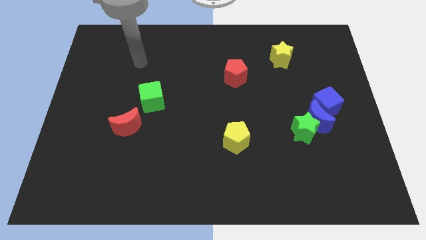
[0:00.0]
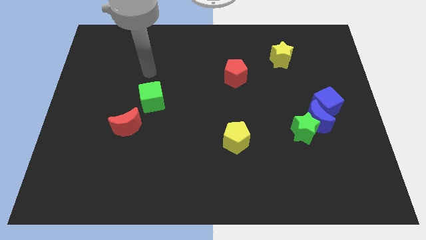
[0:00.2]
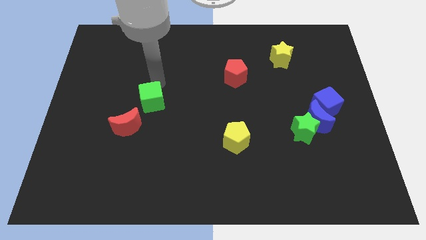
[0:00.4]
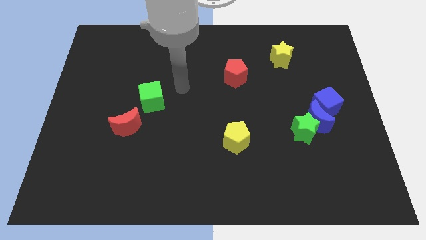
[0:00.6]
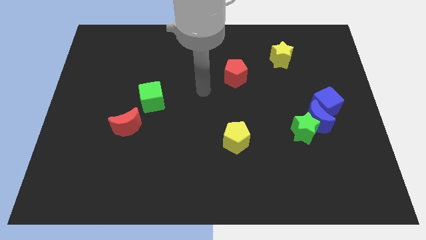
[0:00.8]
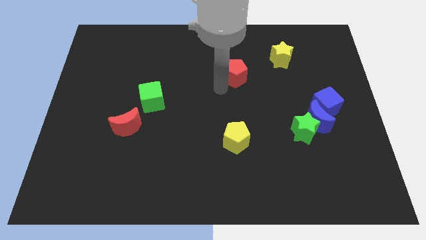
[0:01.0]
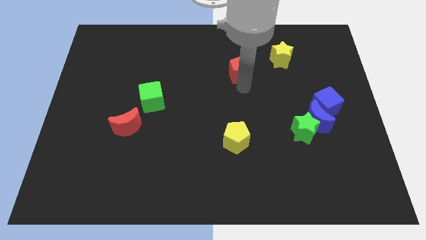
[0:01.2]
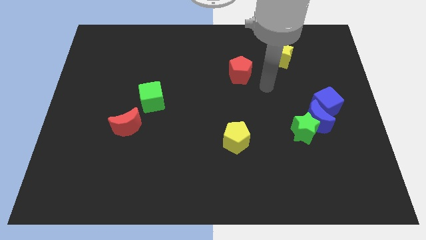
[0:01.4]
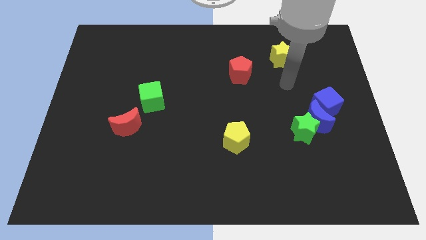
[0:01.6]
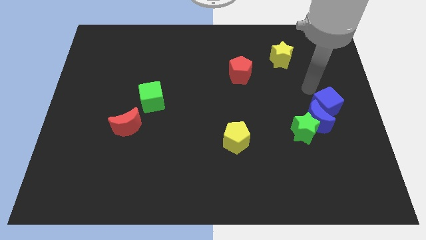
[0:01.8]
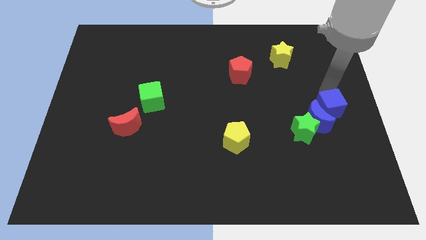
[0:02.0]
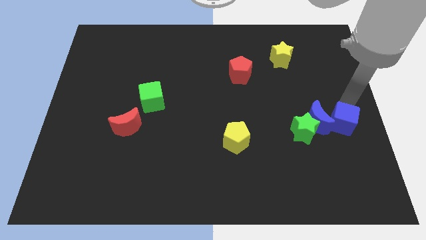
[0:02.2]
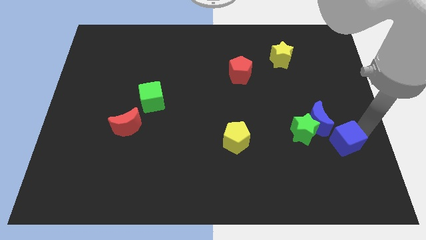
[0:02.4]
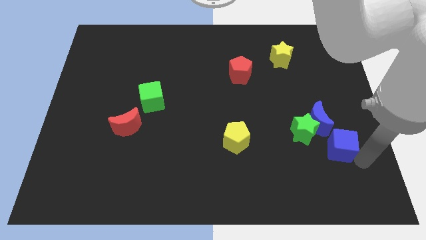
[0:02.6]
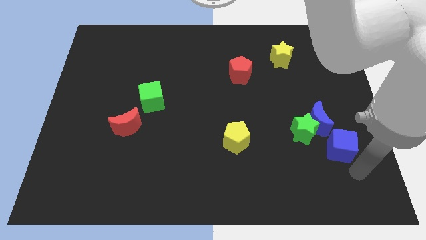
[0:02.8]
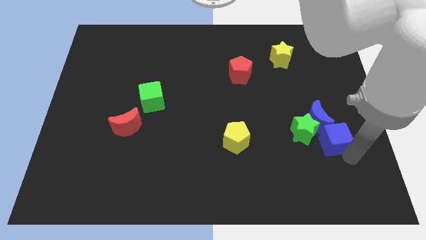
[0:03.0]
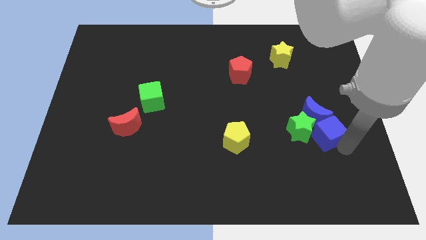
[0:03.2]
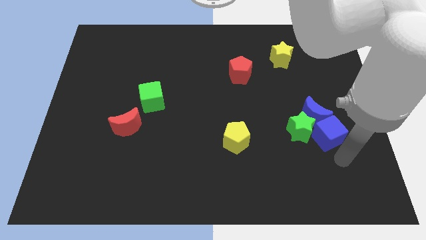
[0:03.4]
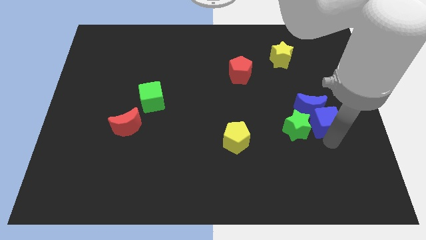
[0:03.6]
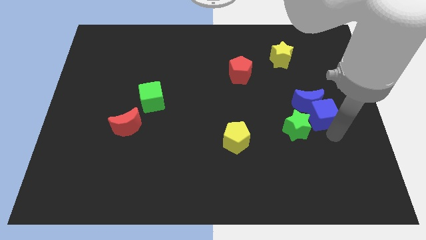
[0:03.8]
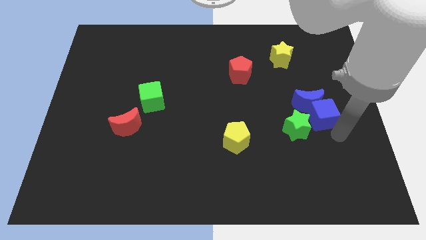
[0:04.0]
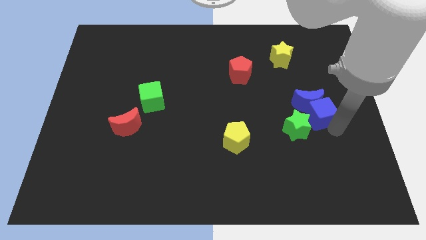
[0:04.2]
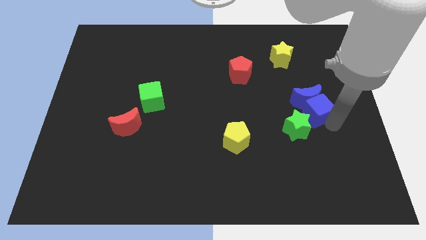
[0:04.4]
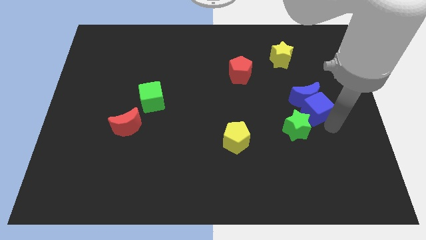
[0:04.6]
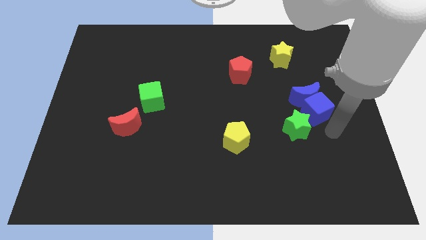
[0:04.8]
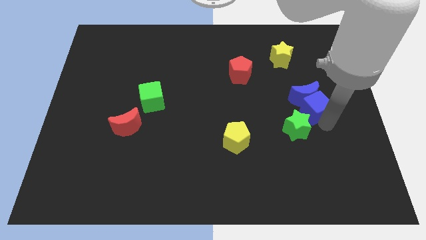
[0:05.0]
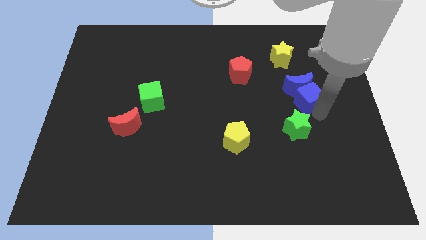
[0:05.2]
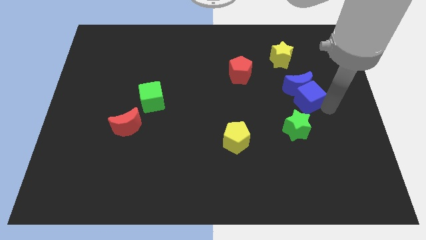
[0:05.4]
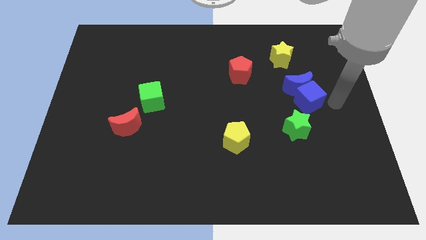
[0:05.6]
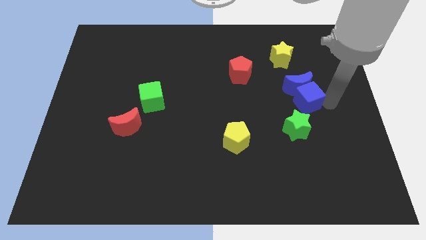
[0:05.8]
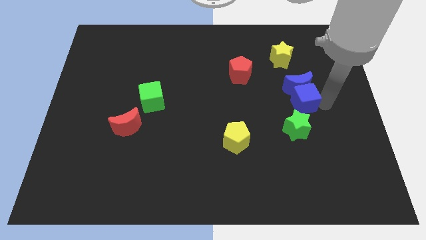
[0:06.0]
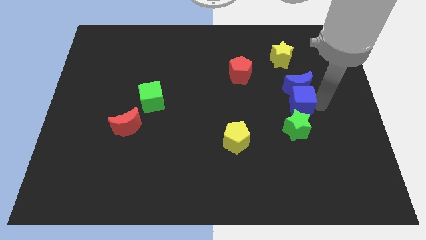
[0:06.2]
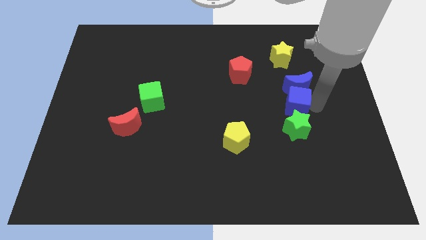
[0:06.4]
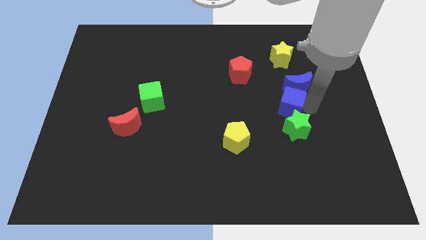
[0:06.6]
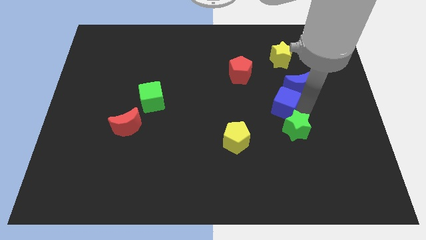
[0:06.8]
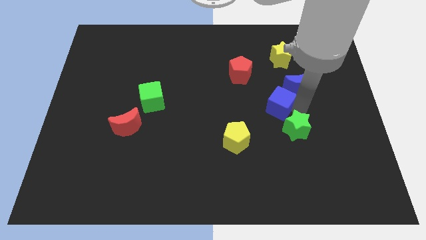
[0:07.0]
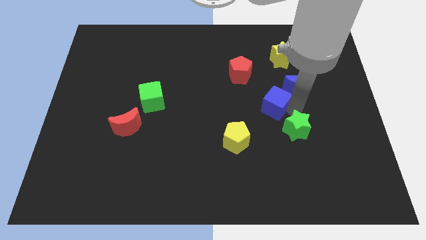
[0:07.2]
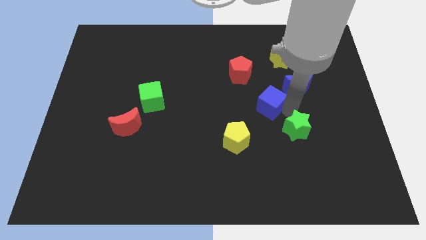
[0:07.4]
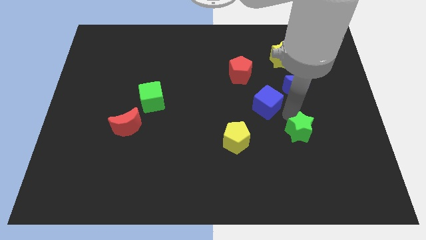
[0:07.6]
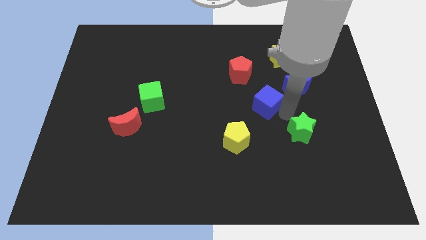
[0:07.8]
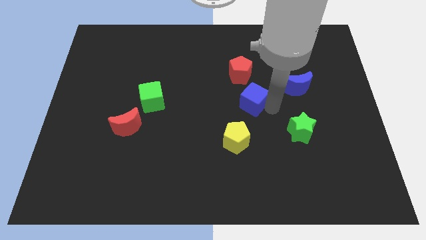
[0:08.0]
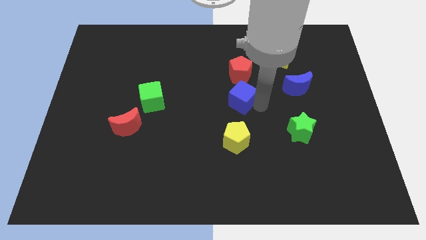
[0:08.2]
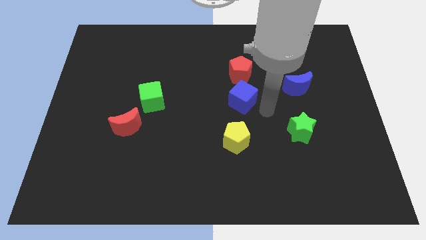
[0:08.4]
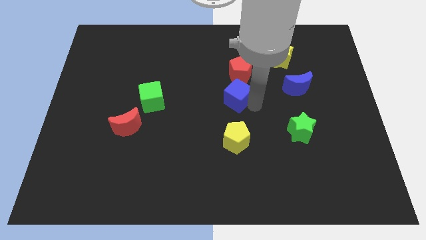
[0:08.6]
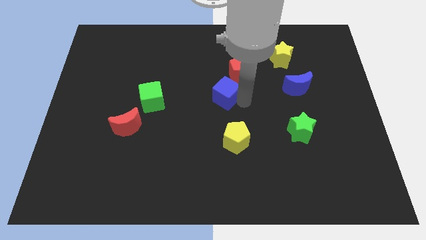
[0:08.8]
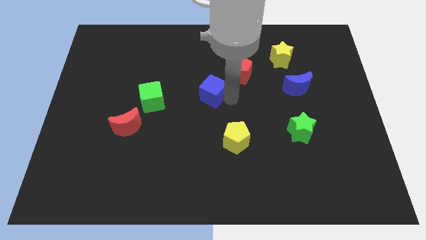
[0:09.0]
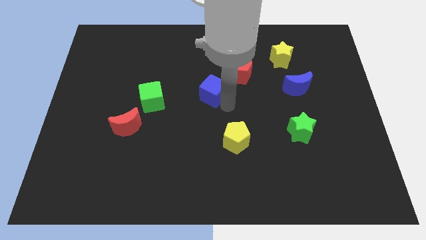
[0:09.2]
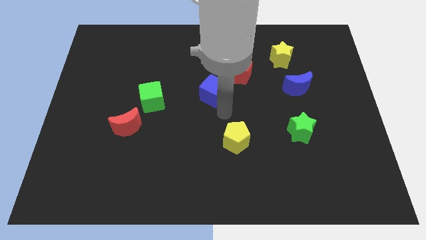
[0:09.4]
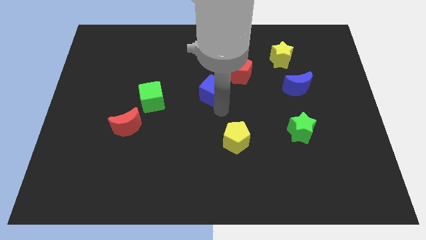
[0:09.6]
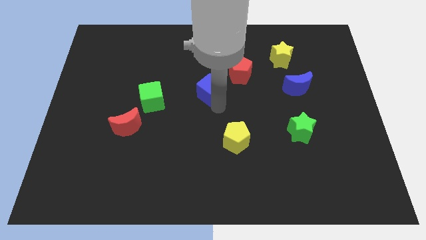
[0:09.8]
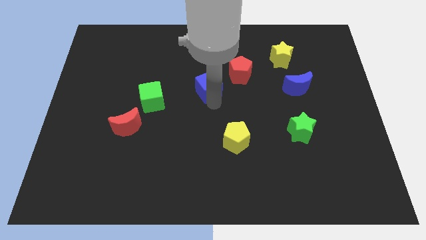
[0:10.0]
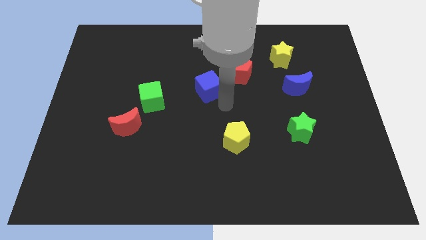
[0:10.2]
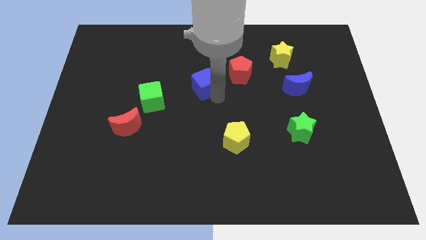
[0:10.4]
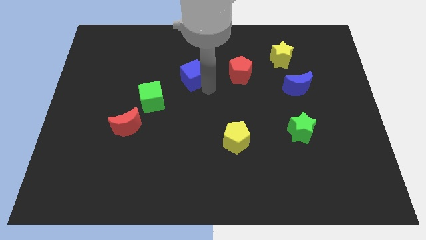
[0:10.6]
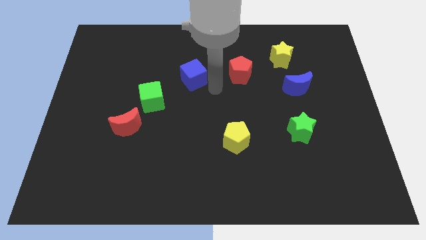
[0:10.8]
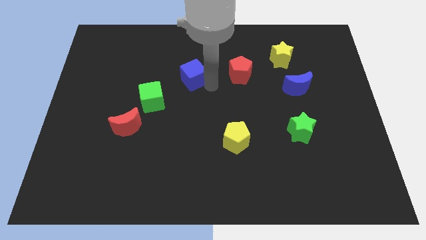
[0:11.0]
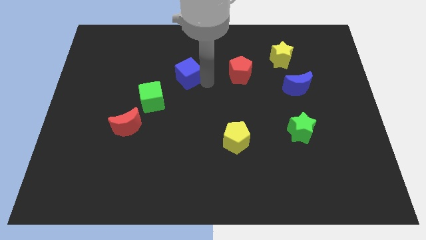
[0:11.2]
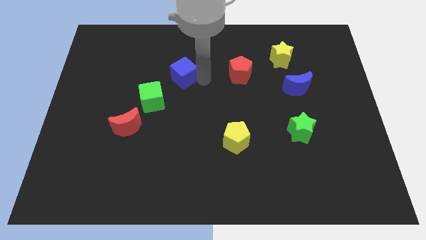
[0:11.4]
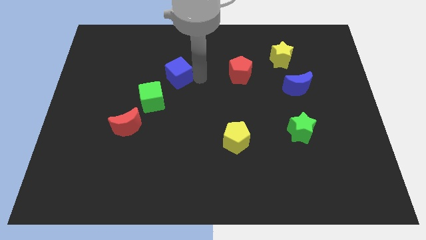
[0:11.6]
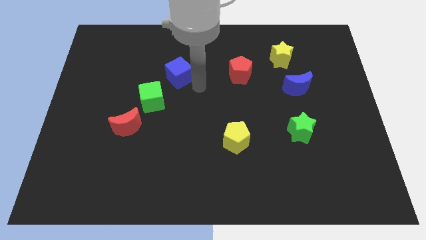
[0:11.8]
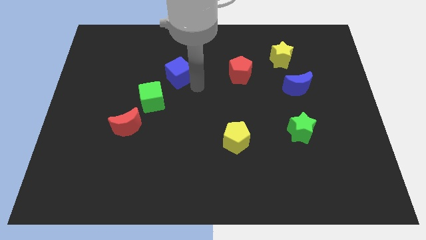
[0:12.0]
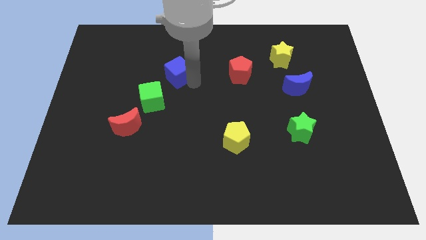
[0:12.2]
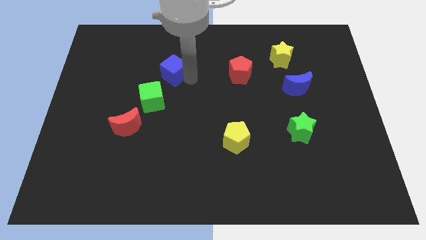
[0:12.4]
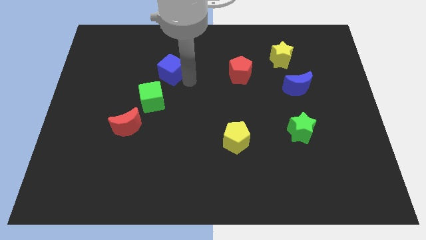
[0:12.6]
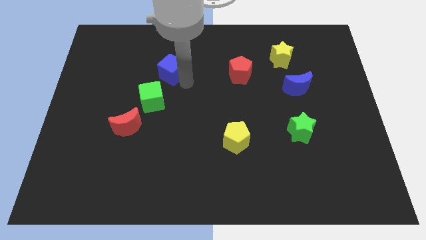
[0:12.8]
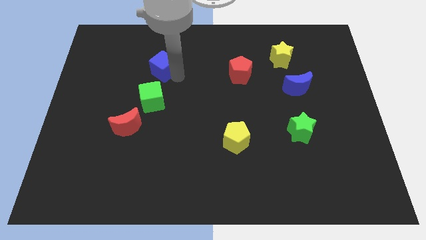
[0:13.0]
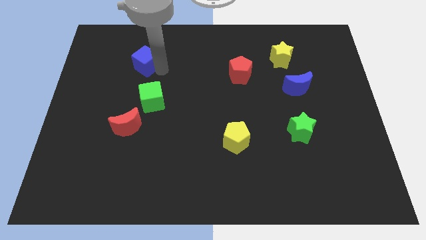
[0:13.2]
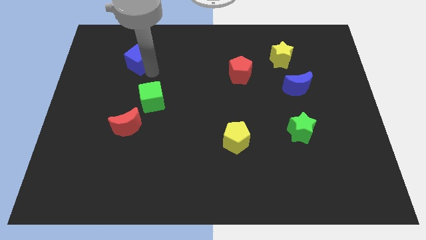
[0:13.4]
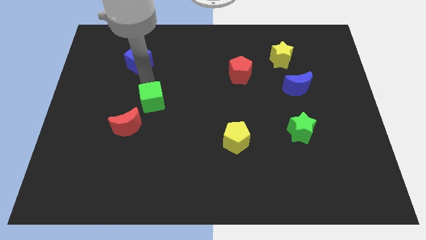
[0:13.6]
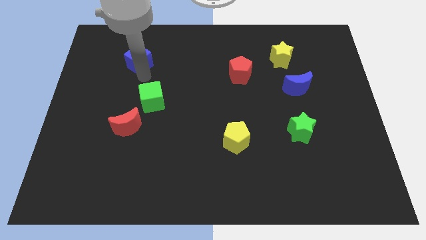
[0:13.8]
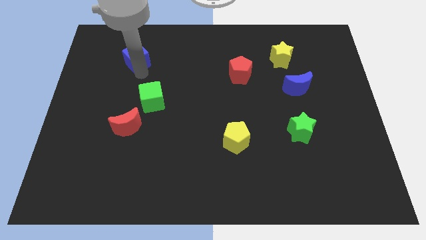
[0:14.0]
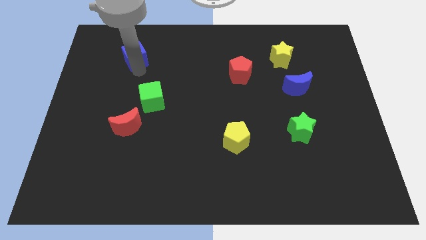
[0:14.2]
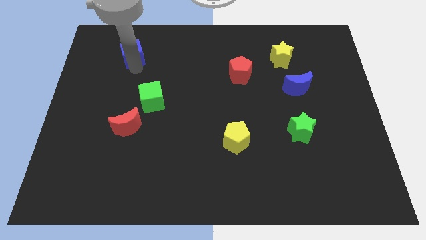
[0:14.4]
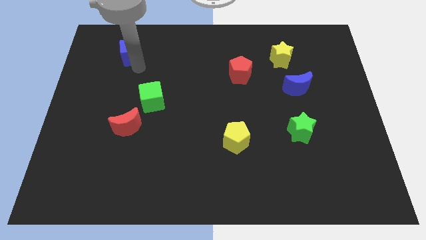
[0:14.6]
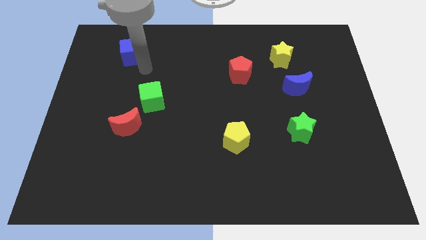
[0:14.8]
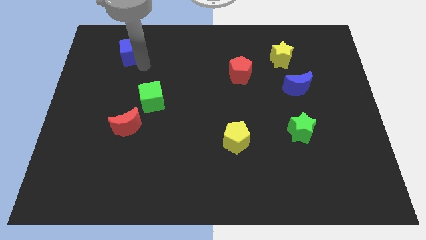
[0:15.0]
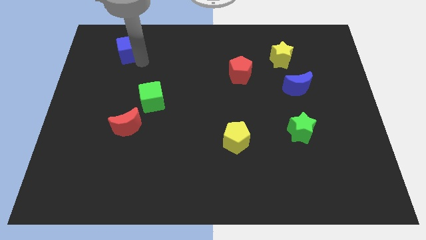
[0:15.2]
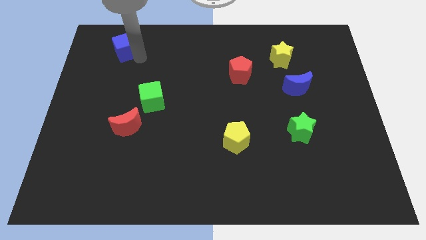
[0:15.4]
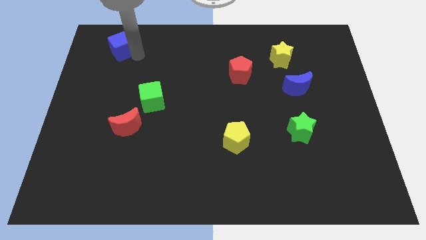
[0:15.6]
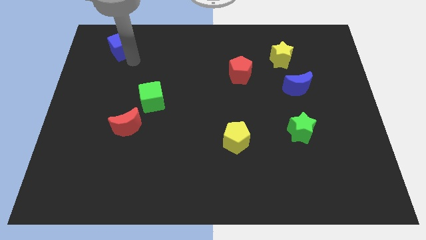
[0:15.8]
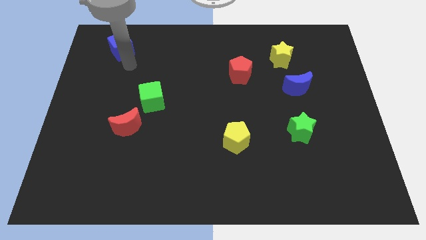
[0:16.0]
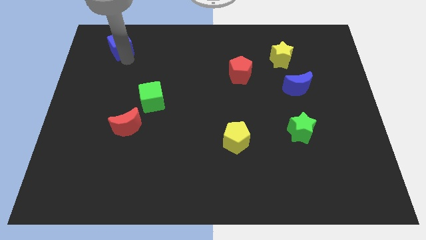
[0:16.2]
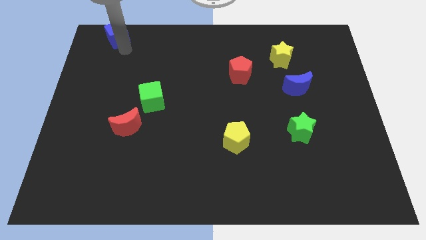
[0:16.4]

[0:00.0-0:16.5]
push the blue cube to the top left of the board
